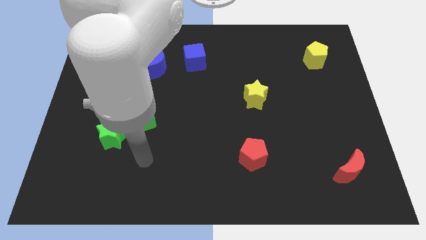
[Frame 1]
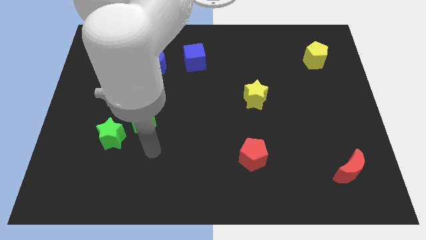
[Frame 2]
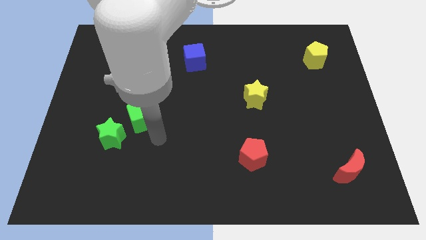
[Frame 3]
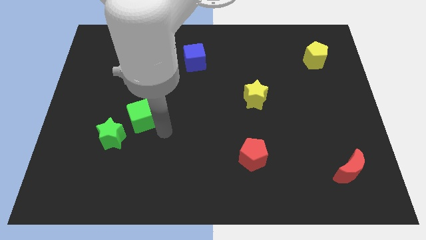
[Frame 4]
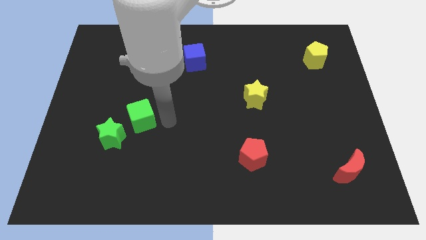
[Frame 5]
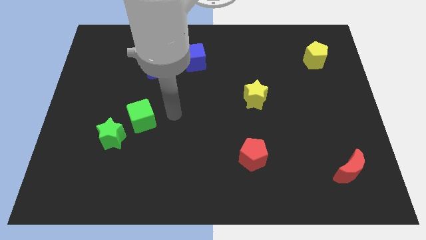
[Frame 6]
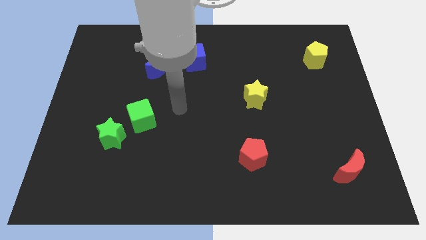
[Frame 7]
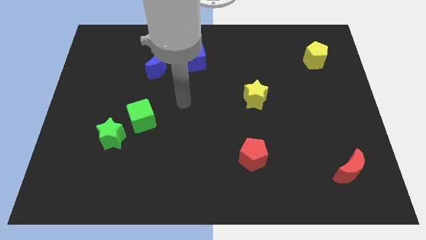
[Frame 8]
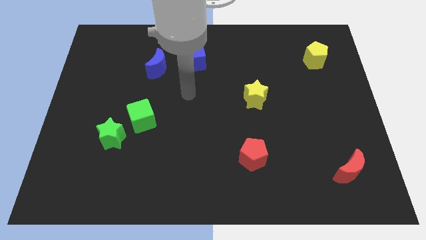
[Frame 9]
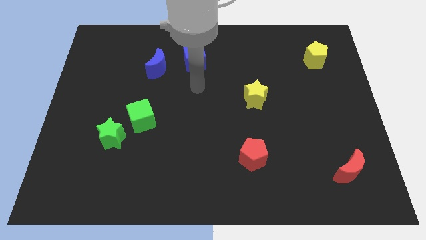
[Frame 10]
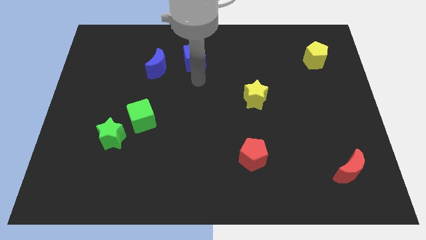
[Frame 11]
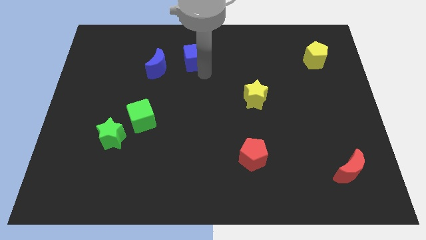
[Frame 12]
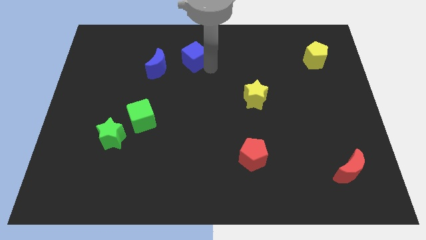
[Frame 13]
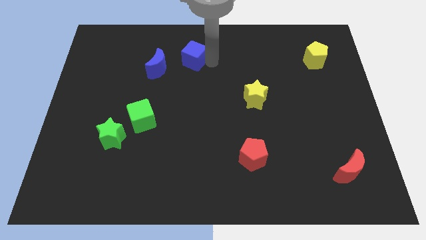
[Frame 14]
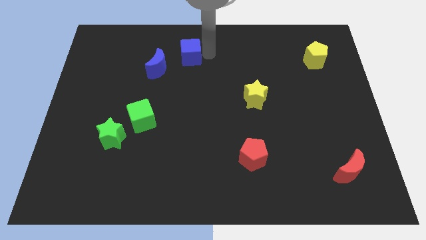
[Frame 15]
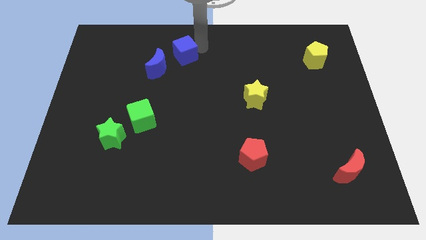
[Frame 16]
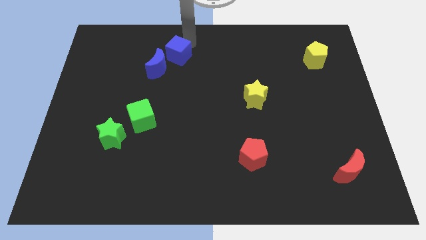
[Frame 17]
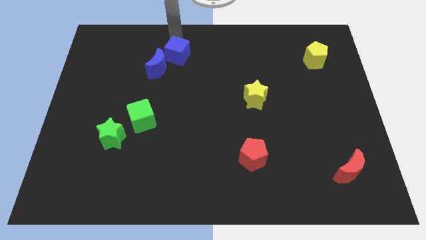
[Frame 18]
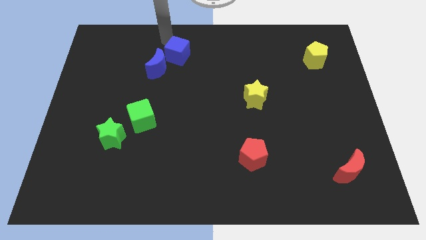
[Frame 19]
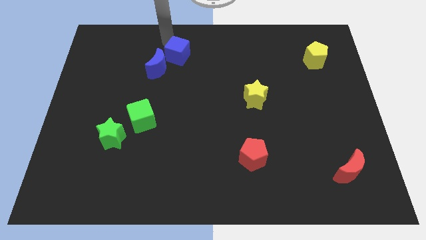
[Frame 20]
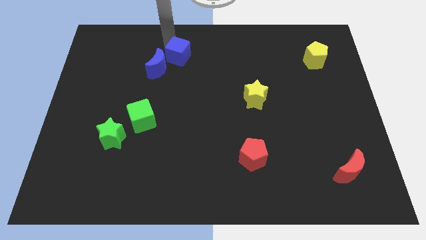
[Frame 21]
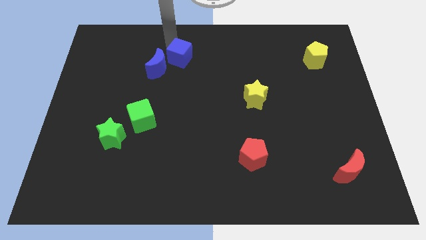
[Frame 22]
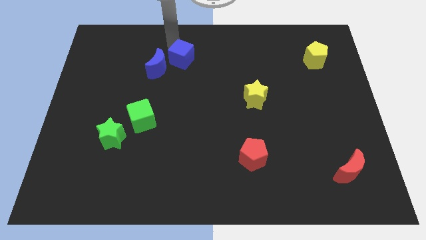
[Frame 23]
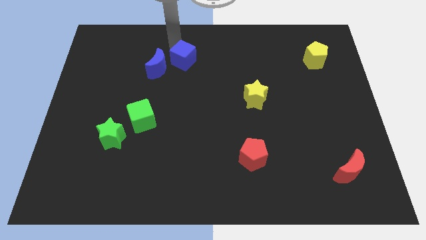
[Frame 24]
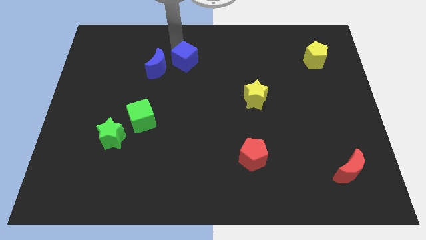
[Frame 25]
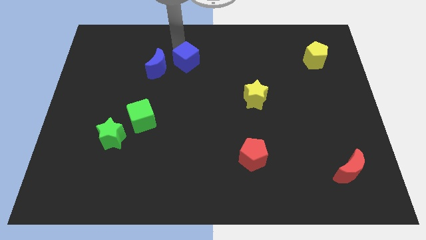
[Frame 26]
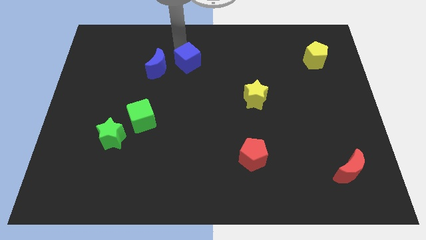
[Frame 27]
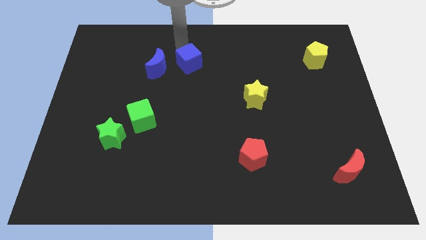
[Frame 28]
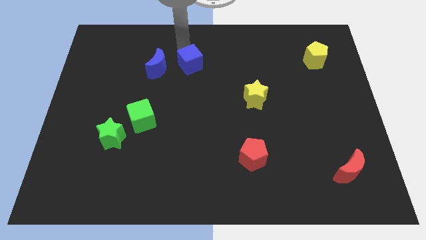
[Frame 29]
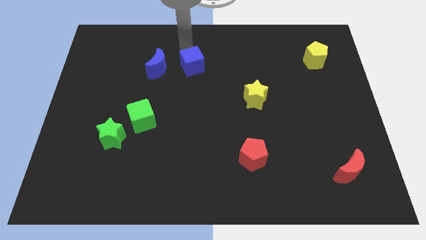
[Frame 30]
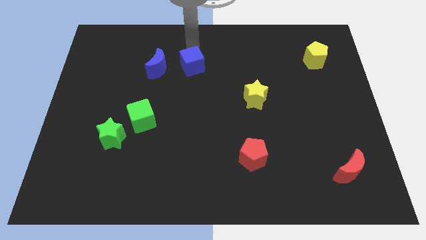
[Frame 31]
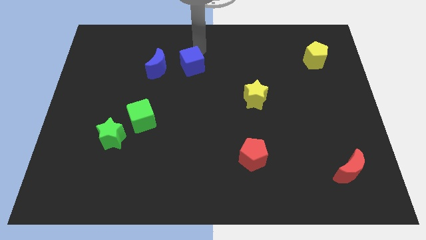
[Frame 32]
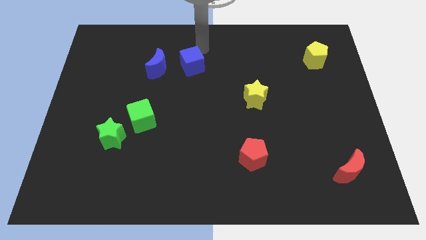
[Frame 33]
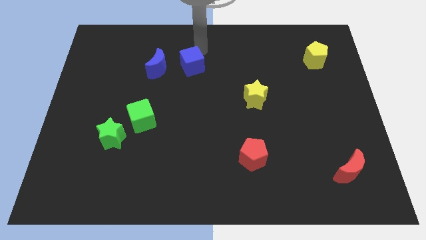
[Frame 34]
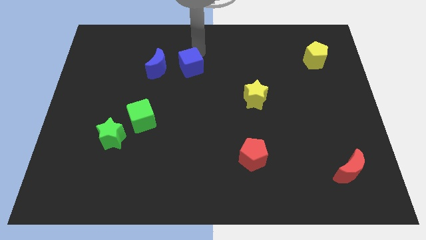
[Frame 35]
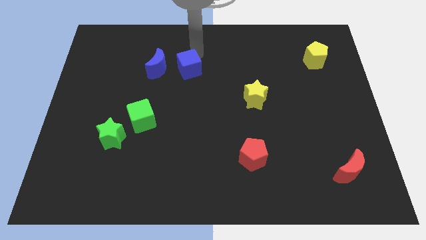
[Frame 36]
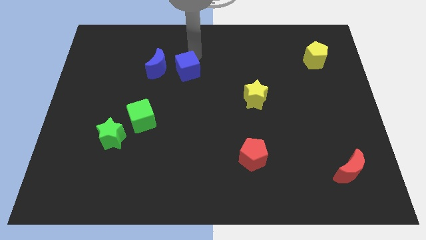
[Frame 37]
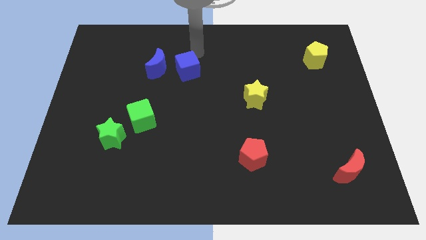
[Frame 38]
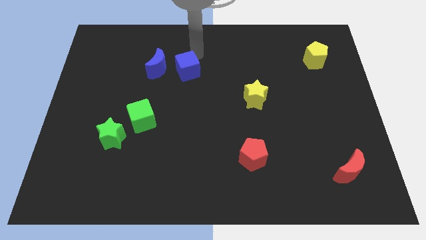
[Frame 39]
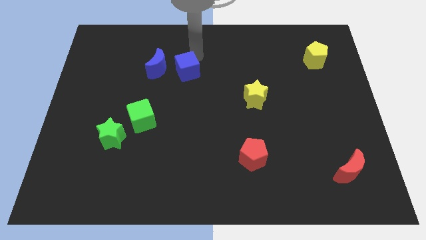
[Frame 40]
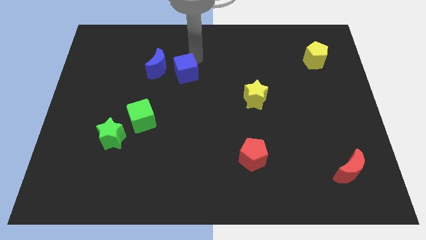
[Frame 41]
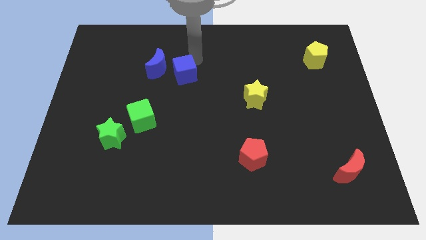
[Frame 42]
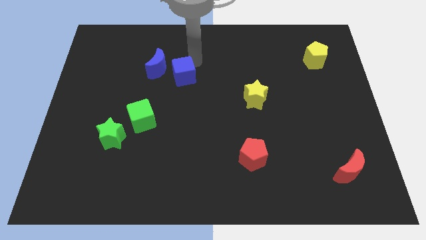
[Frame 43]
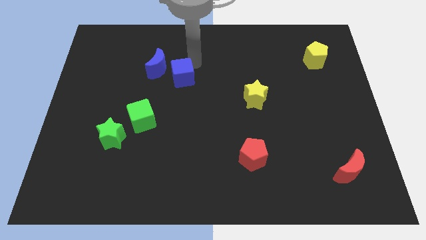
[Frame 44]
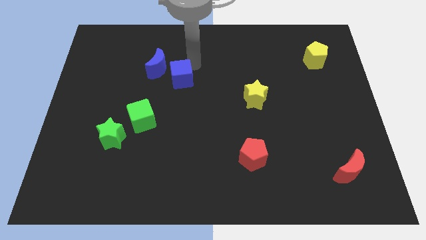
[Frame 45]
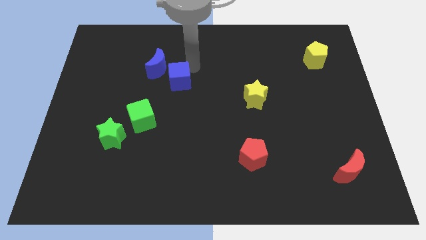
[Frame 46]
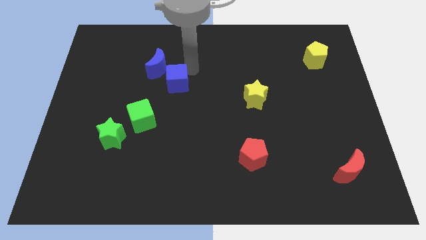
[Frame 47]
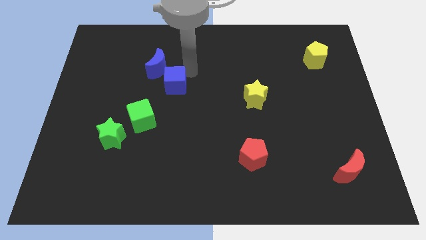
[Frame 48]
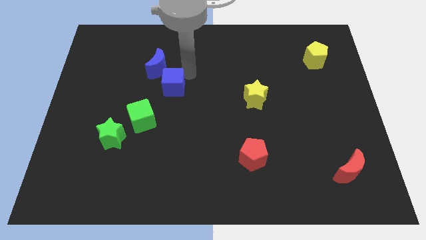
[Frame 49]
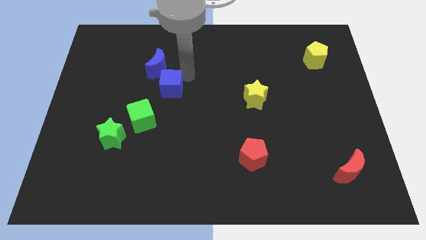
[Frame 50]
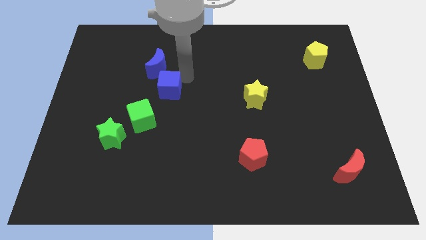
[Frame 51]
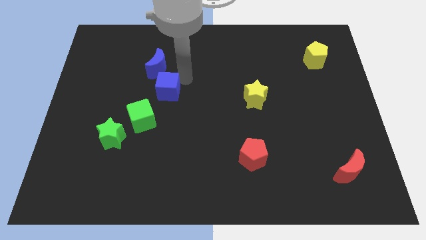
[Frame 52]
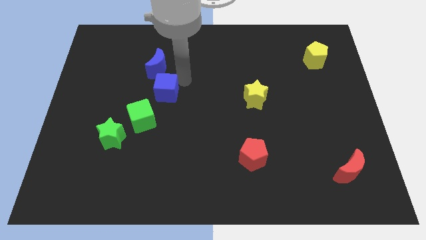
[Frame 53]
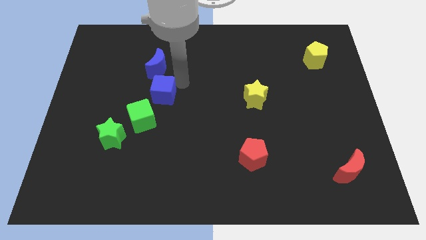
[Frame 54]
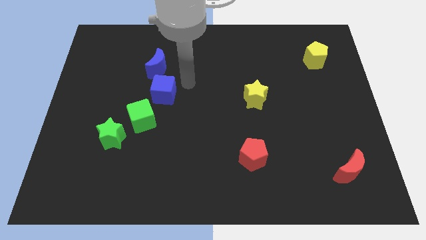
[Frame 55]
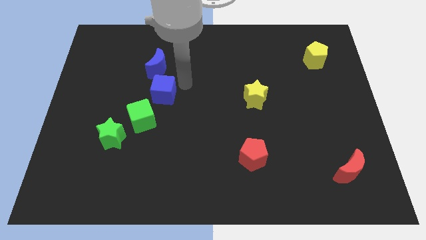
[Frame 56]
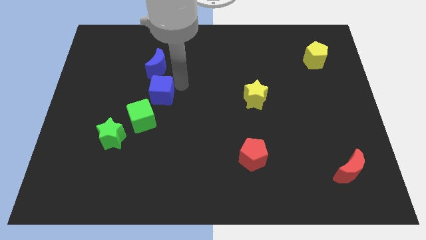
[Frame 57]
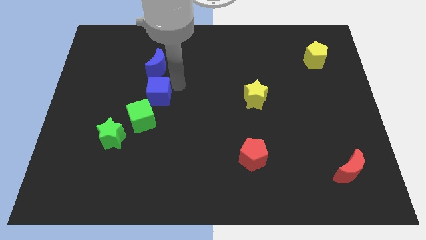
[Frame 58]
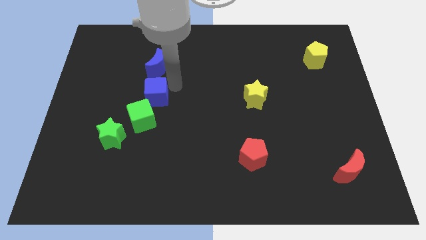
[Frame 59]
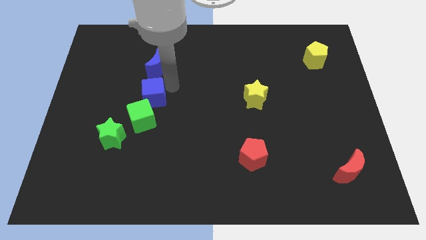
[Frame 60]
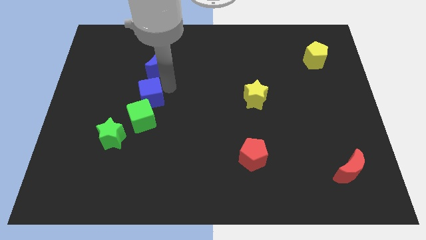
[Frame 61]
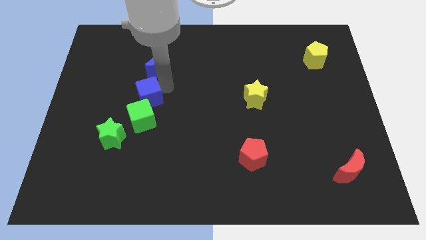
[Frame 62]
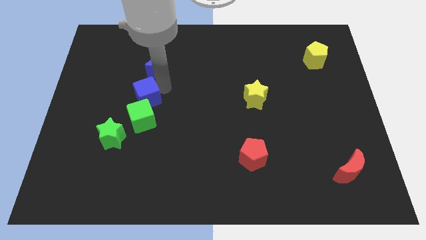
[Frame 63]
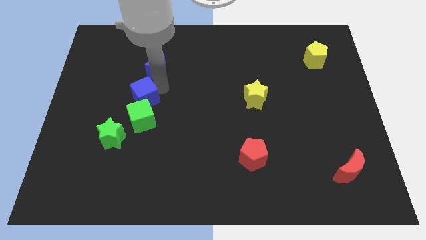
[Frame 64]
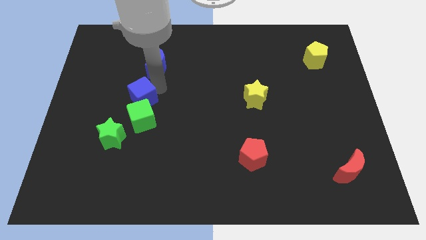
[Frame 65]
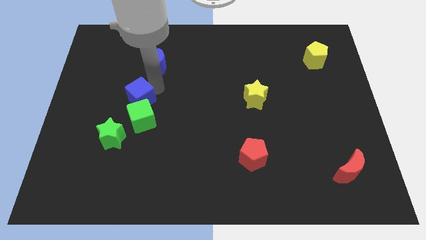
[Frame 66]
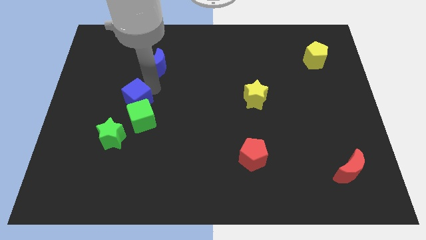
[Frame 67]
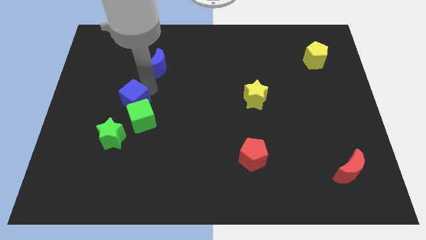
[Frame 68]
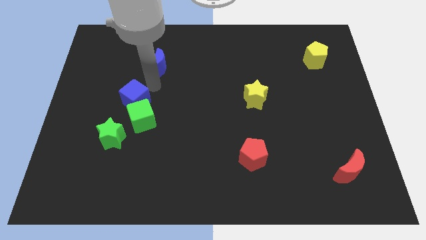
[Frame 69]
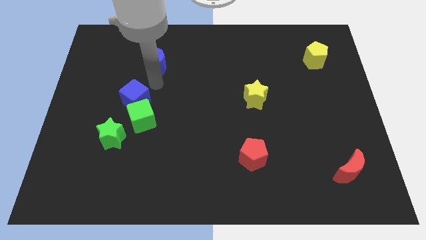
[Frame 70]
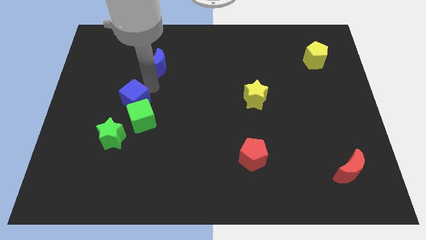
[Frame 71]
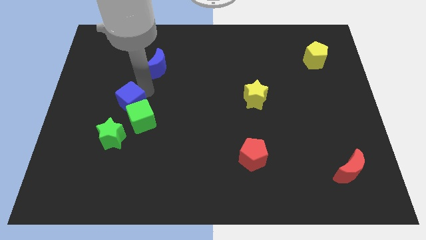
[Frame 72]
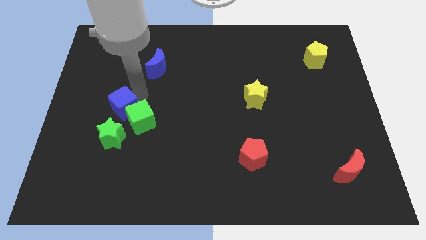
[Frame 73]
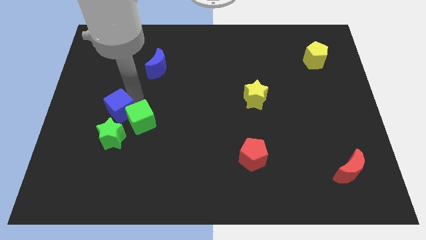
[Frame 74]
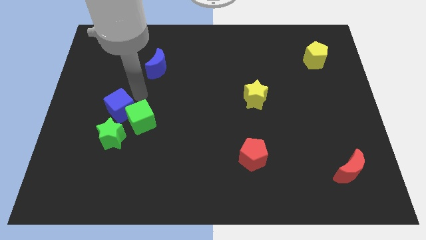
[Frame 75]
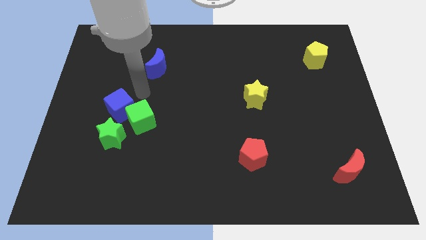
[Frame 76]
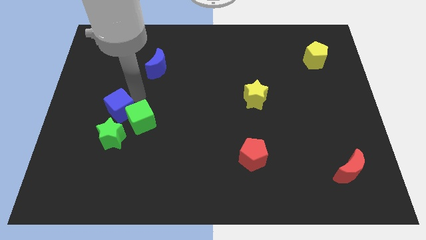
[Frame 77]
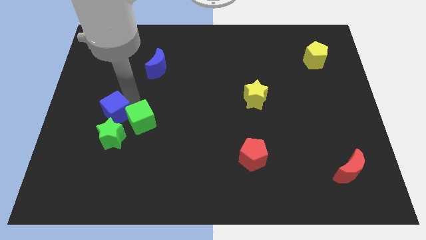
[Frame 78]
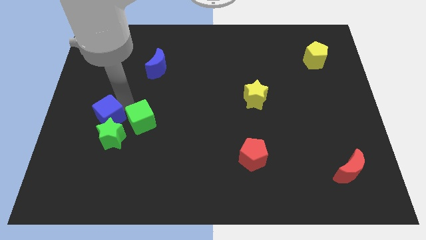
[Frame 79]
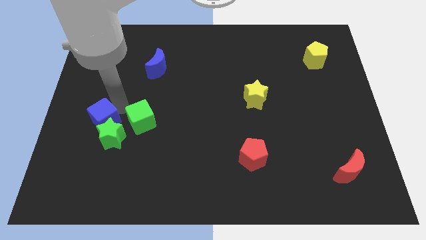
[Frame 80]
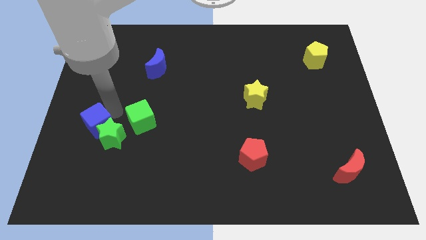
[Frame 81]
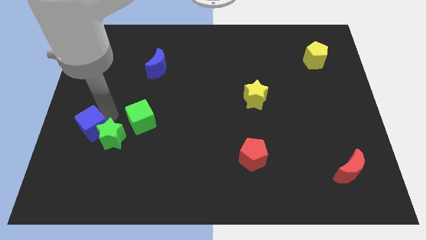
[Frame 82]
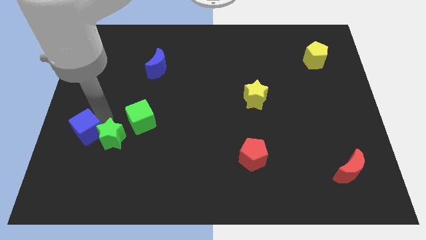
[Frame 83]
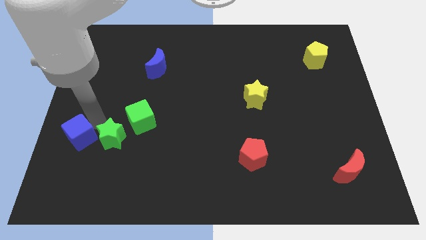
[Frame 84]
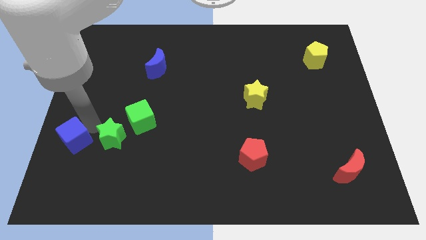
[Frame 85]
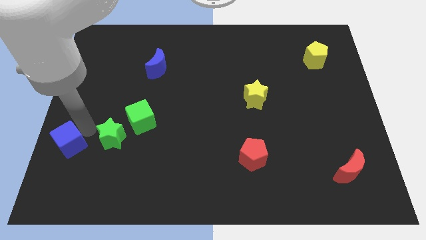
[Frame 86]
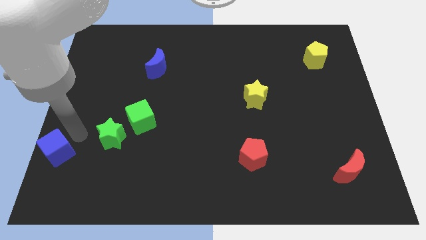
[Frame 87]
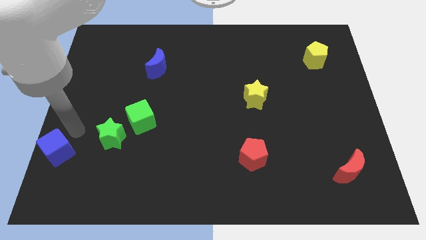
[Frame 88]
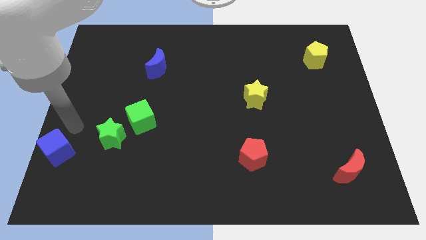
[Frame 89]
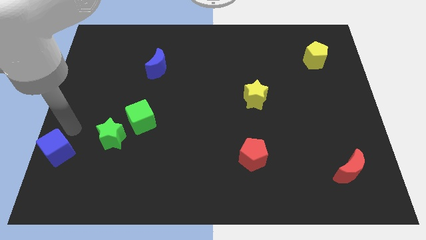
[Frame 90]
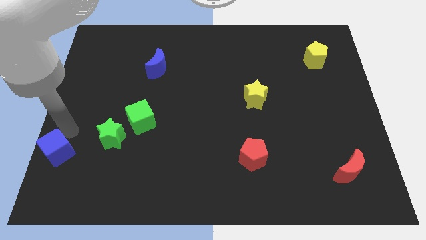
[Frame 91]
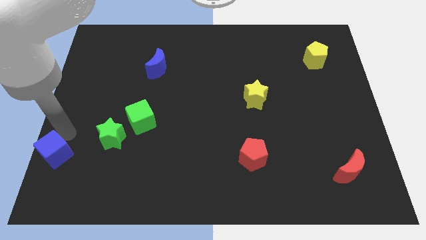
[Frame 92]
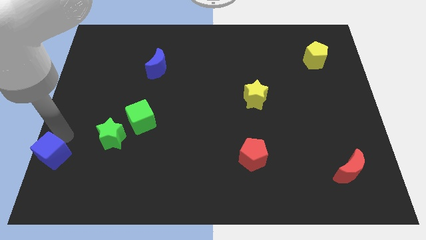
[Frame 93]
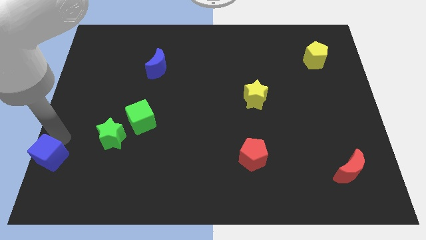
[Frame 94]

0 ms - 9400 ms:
move the blue cube to the bottom left corner
